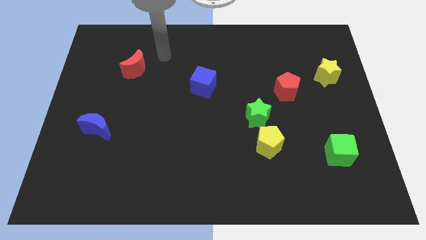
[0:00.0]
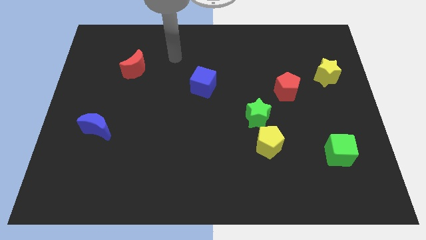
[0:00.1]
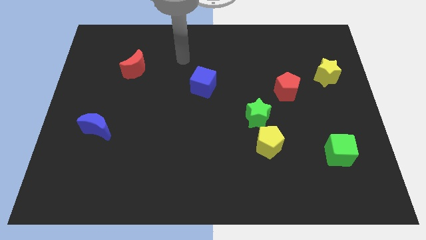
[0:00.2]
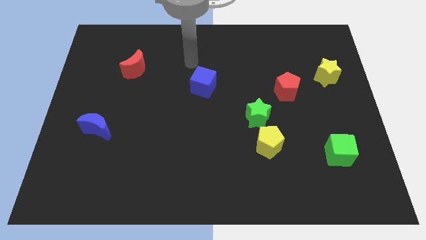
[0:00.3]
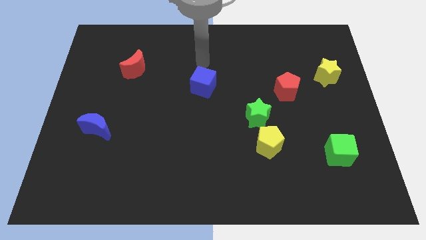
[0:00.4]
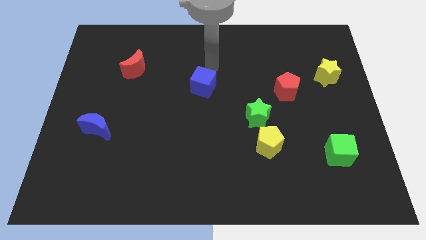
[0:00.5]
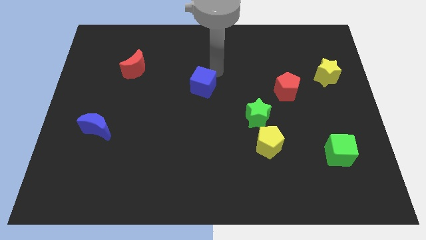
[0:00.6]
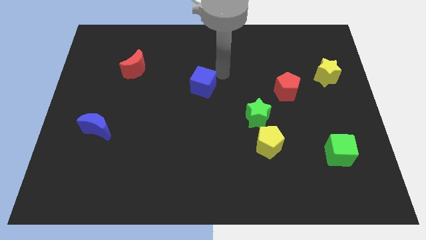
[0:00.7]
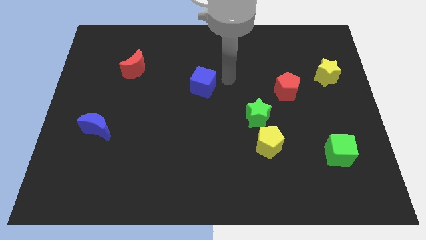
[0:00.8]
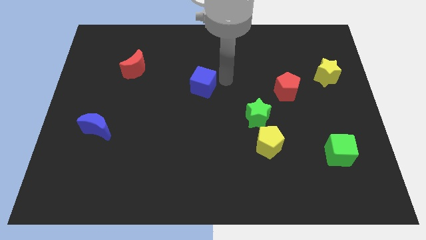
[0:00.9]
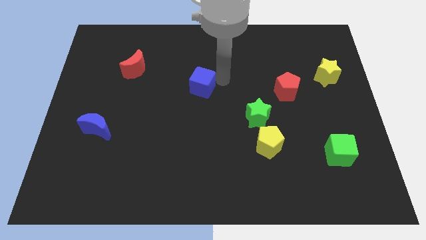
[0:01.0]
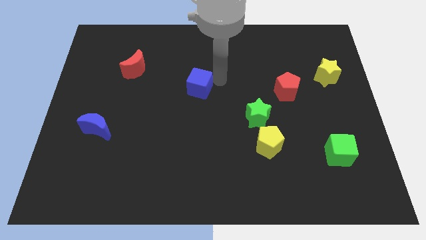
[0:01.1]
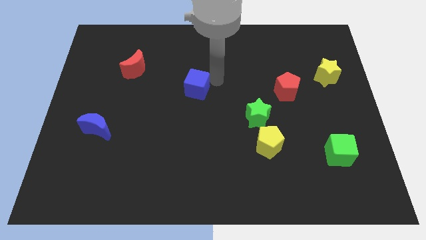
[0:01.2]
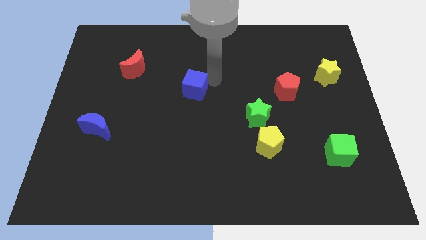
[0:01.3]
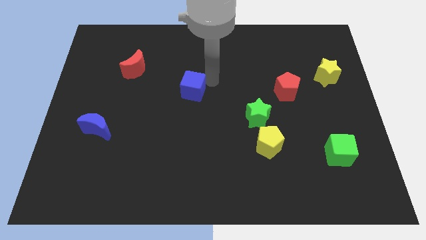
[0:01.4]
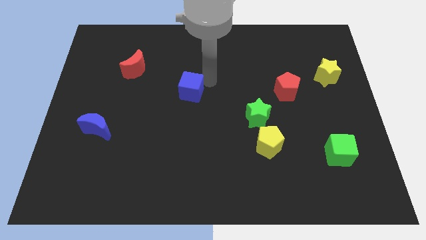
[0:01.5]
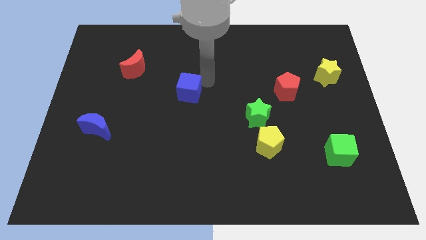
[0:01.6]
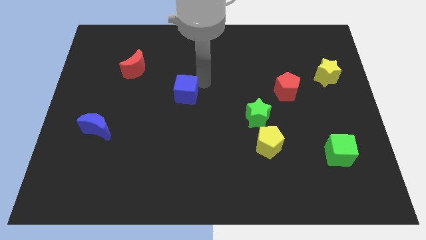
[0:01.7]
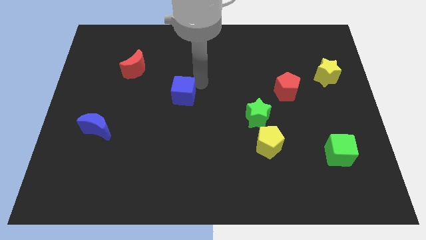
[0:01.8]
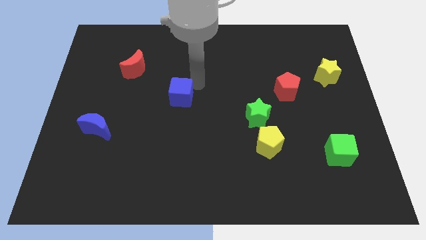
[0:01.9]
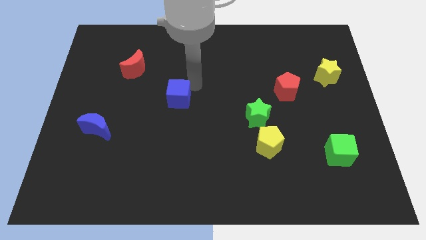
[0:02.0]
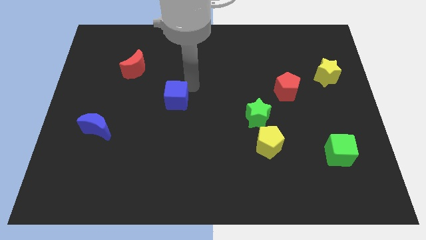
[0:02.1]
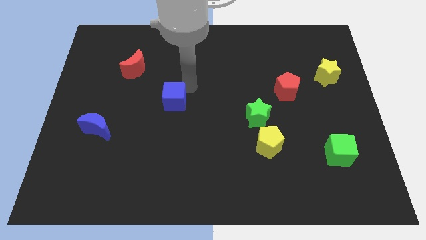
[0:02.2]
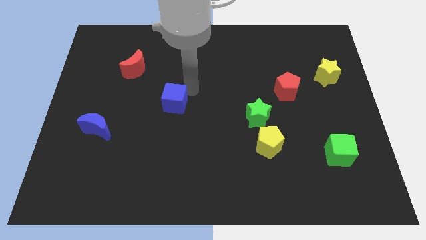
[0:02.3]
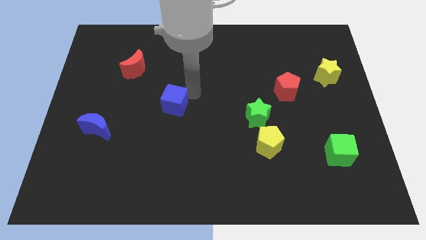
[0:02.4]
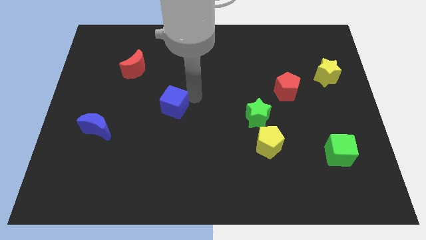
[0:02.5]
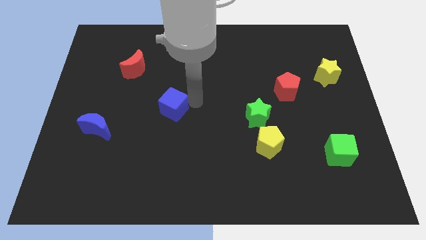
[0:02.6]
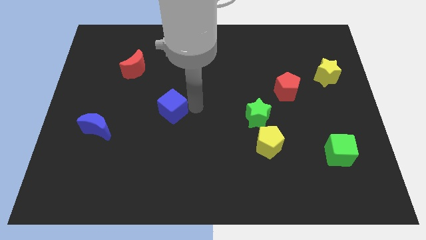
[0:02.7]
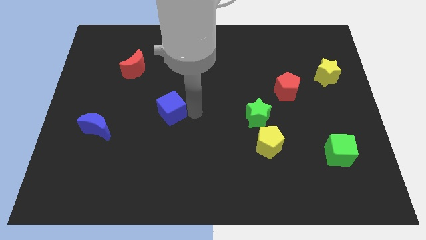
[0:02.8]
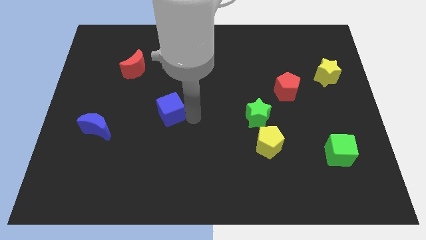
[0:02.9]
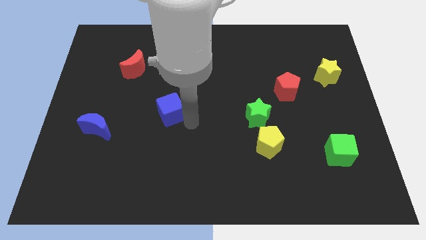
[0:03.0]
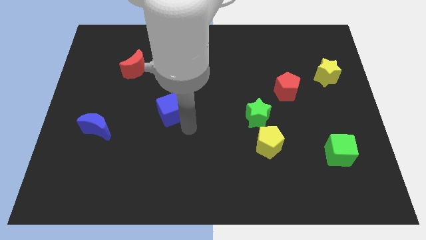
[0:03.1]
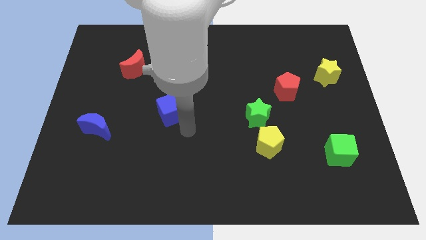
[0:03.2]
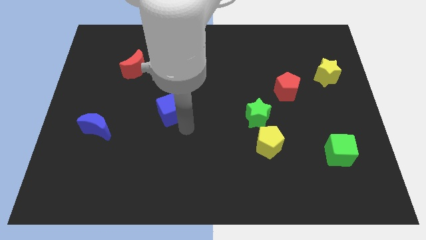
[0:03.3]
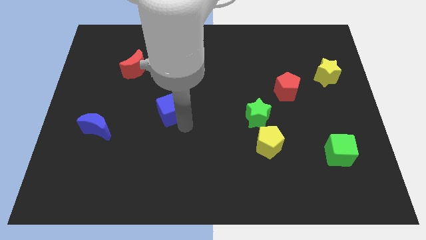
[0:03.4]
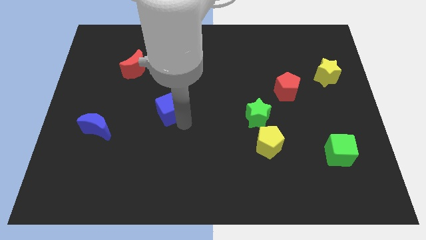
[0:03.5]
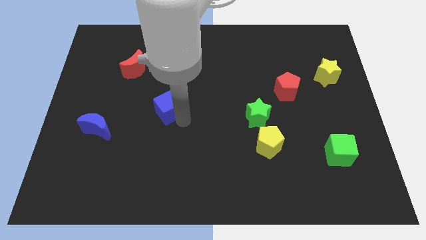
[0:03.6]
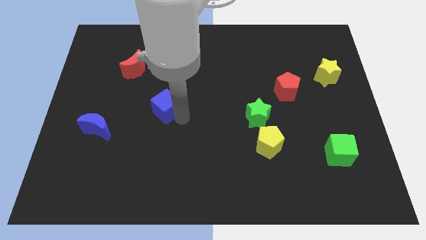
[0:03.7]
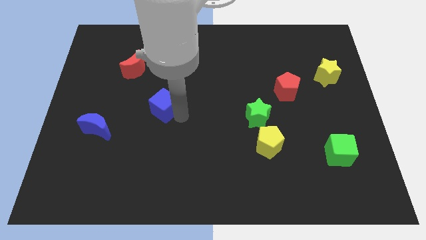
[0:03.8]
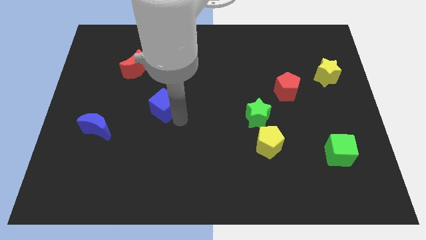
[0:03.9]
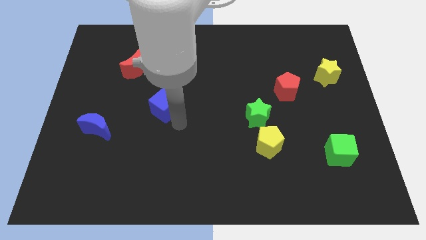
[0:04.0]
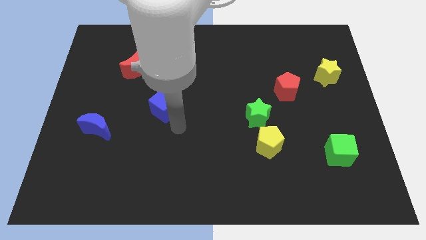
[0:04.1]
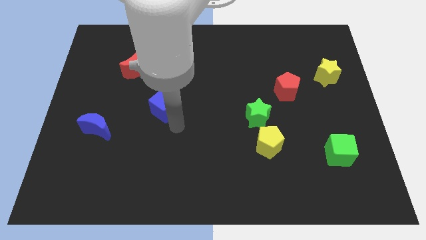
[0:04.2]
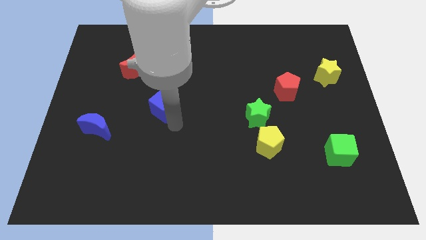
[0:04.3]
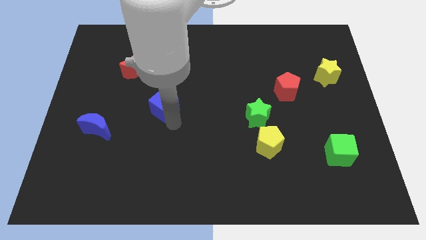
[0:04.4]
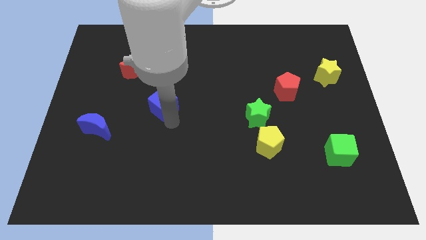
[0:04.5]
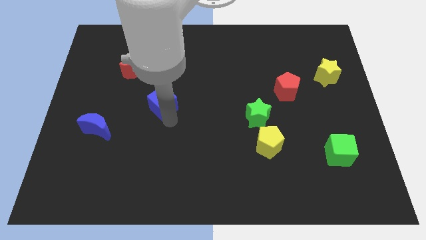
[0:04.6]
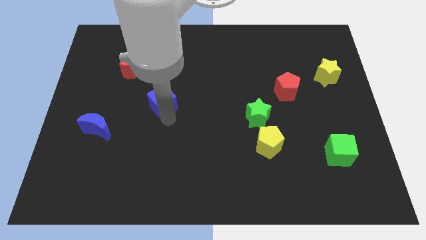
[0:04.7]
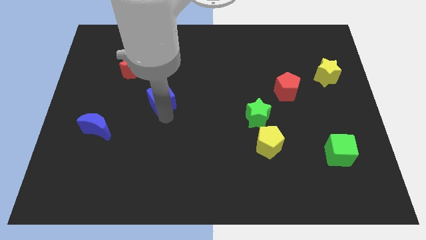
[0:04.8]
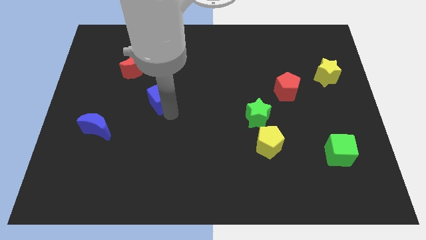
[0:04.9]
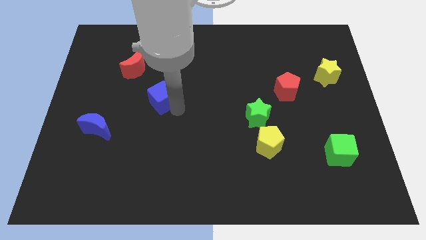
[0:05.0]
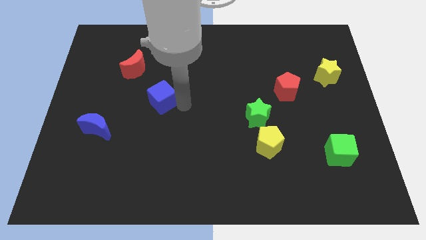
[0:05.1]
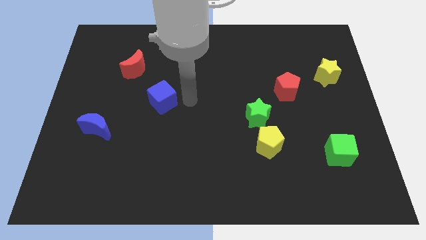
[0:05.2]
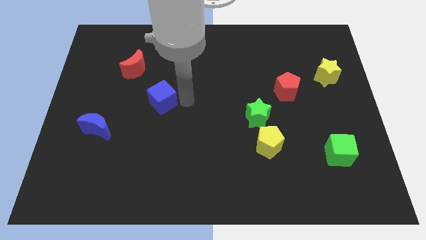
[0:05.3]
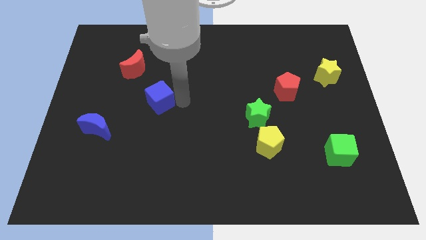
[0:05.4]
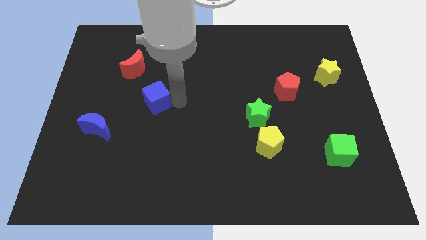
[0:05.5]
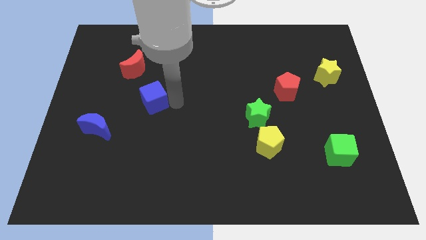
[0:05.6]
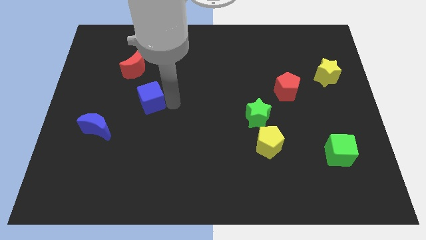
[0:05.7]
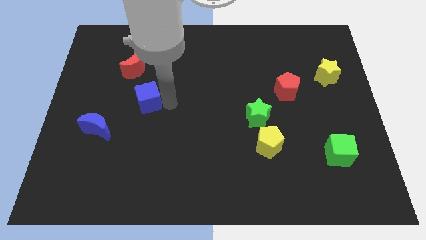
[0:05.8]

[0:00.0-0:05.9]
put the blue cube below the red moon

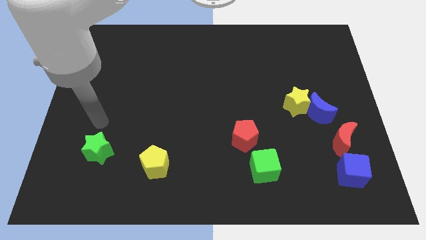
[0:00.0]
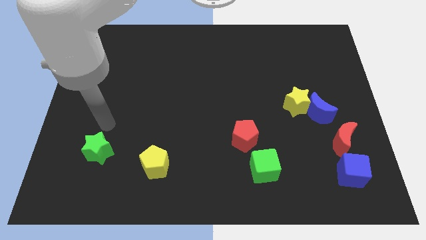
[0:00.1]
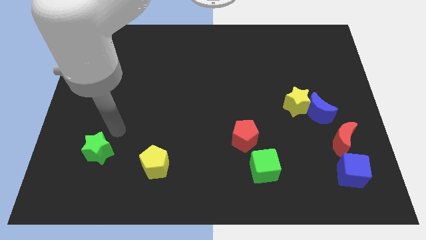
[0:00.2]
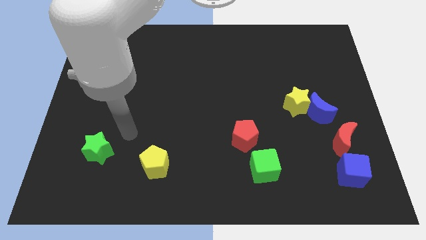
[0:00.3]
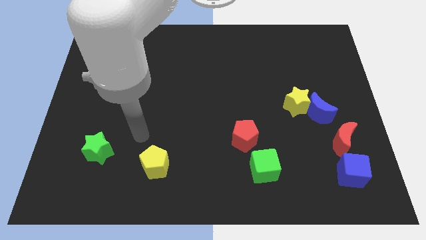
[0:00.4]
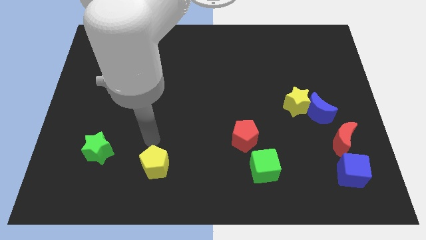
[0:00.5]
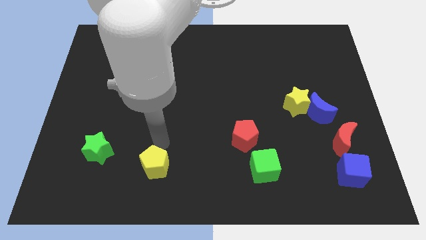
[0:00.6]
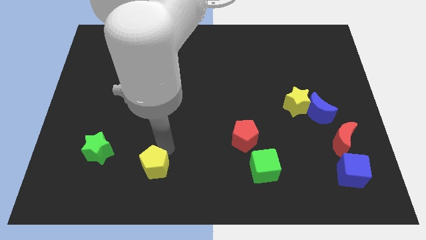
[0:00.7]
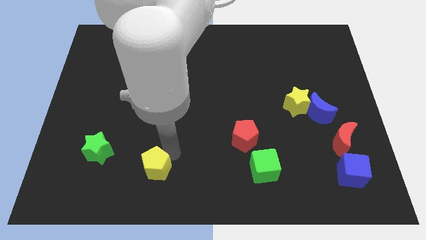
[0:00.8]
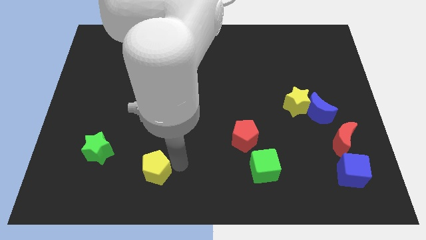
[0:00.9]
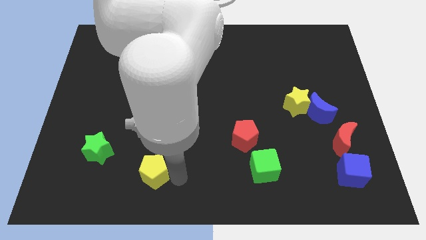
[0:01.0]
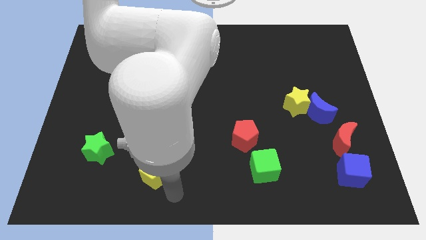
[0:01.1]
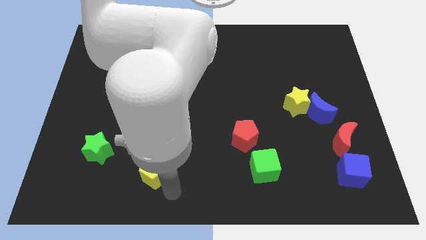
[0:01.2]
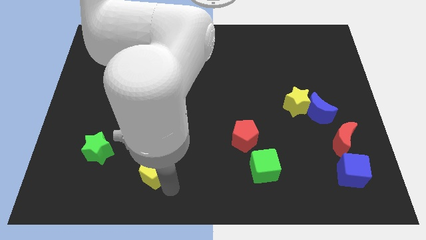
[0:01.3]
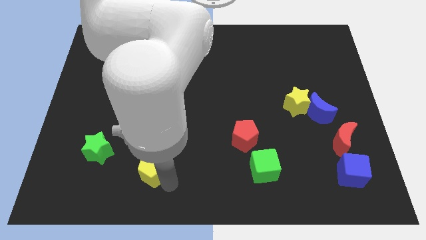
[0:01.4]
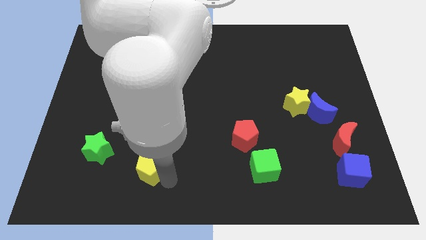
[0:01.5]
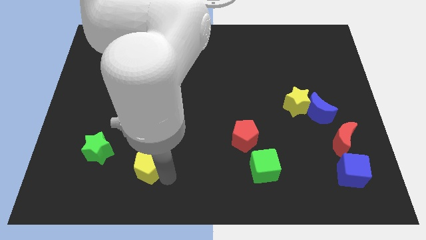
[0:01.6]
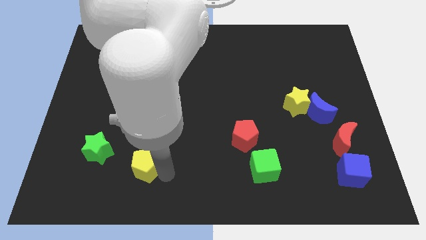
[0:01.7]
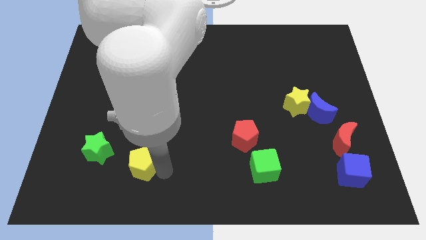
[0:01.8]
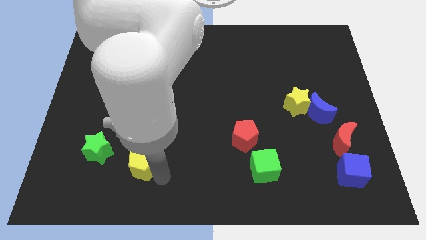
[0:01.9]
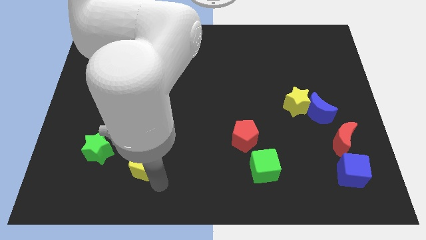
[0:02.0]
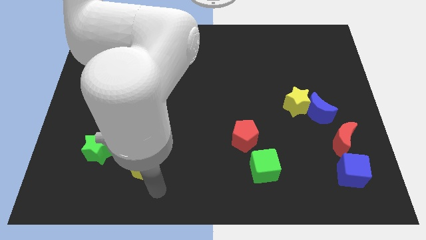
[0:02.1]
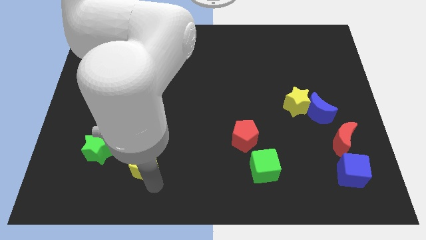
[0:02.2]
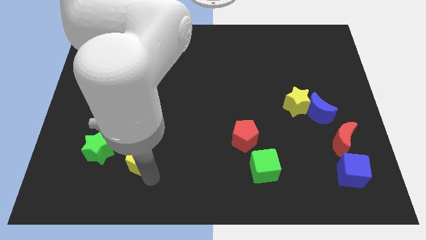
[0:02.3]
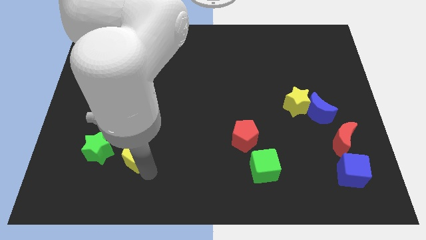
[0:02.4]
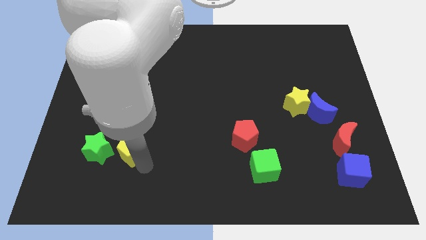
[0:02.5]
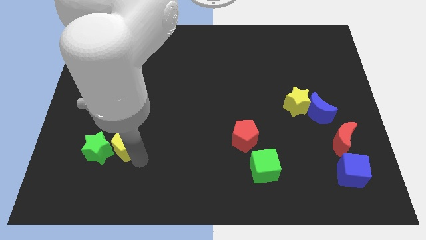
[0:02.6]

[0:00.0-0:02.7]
move the yellow pentagon diagonally up and to the right of the green star
